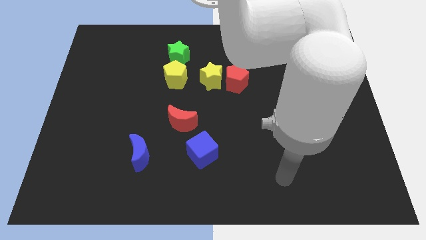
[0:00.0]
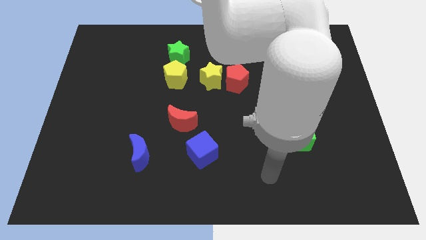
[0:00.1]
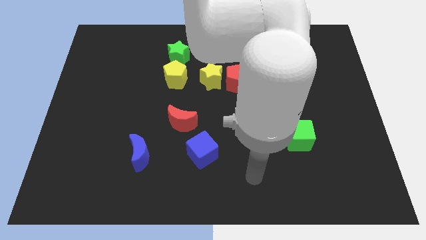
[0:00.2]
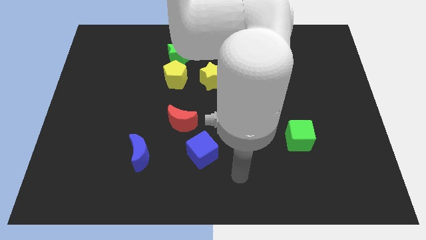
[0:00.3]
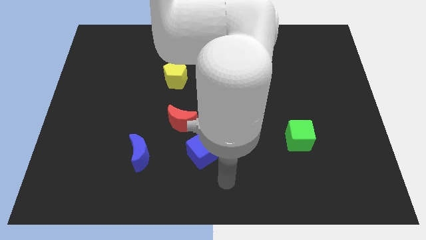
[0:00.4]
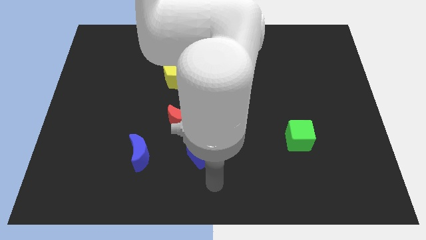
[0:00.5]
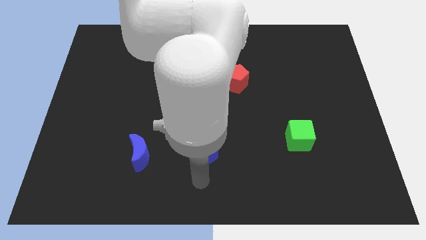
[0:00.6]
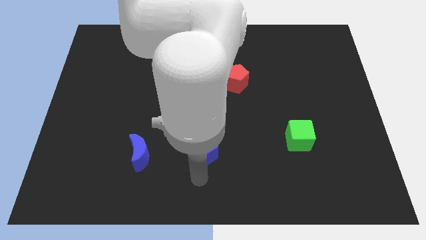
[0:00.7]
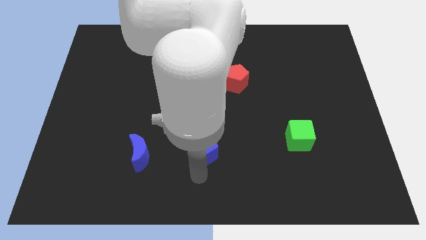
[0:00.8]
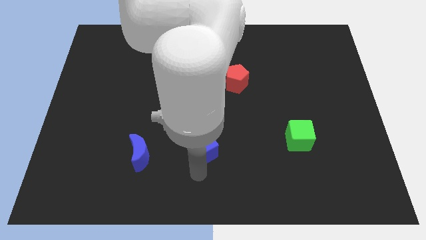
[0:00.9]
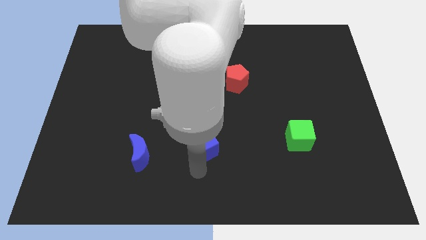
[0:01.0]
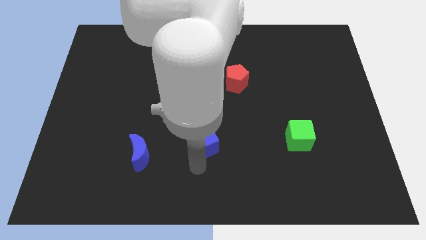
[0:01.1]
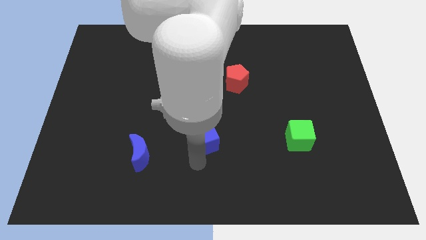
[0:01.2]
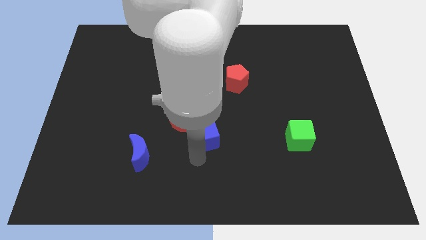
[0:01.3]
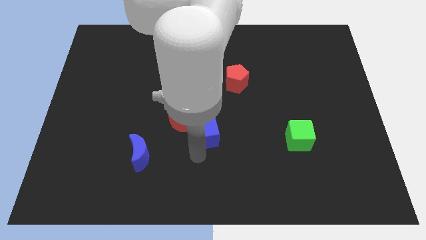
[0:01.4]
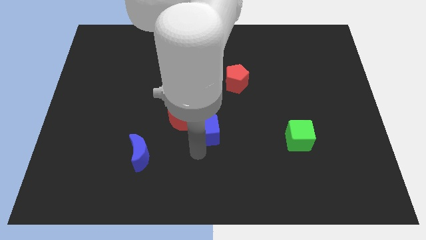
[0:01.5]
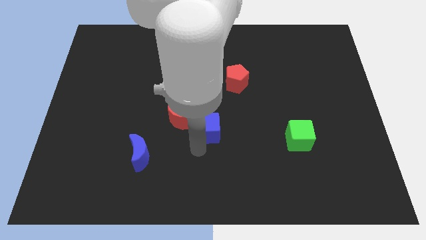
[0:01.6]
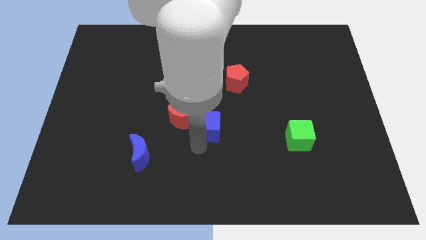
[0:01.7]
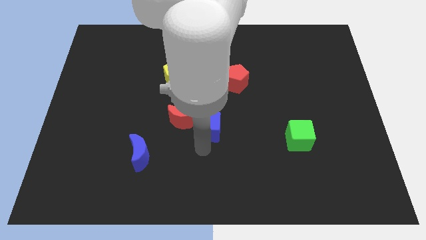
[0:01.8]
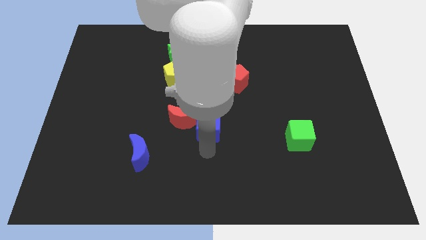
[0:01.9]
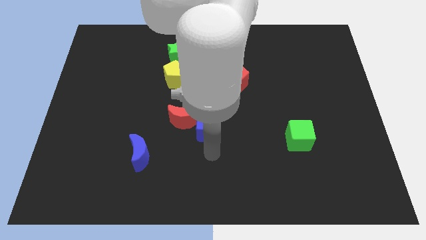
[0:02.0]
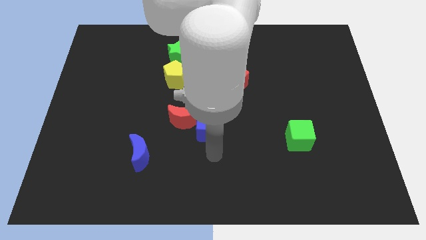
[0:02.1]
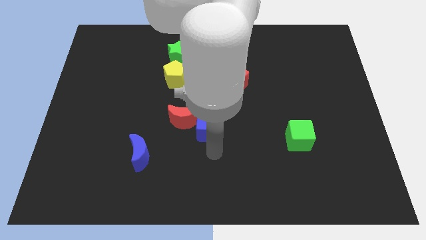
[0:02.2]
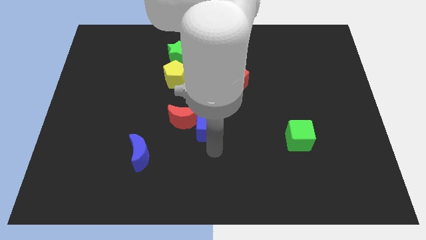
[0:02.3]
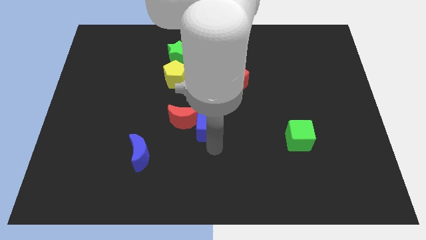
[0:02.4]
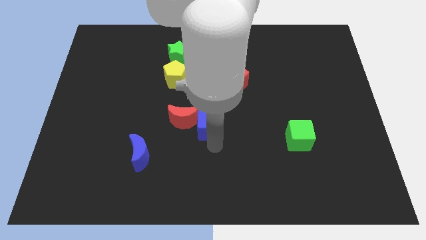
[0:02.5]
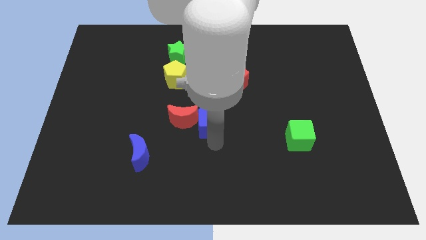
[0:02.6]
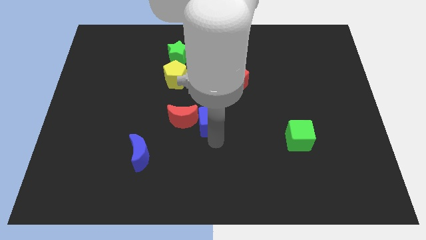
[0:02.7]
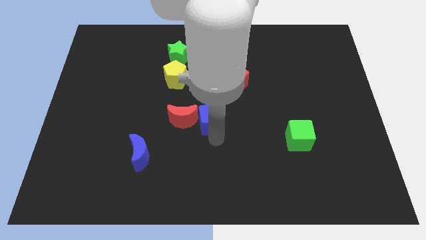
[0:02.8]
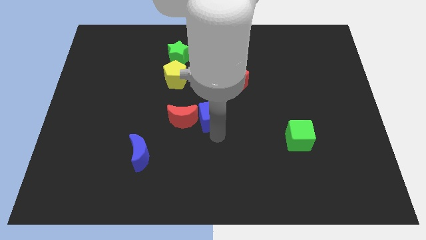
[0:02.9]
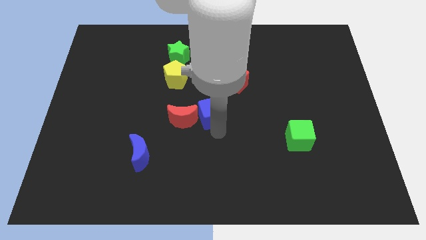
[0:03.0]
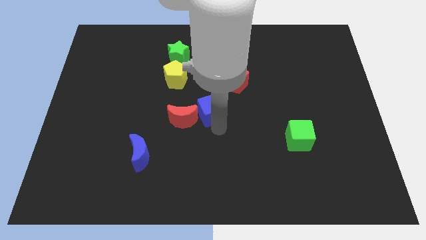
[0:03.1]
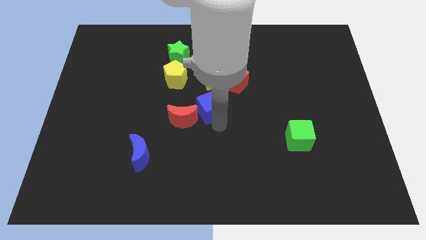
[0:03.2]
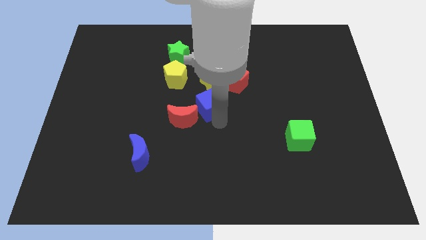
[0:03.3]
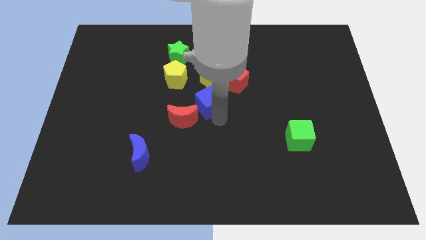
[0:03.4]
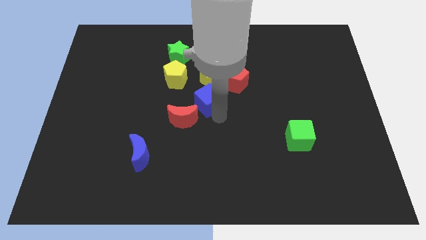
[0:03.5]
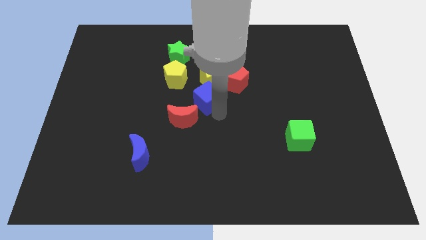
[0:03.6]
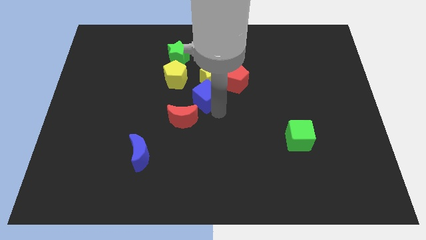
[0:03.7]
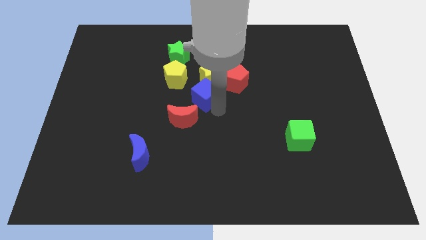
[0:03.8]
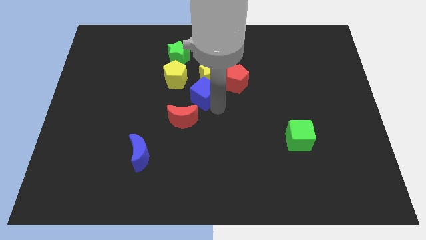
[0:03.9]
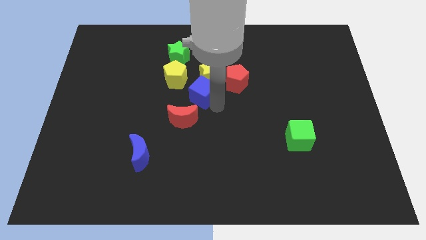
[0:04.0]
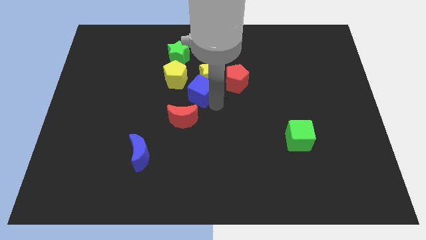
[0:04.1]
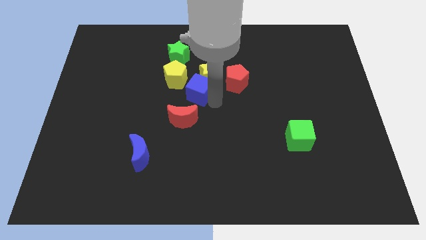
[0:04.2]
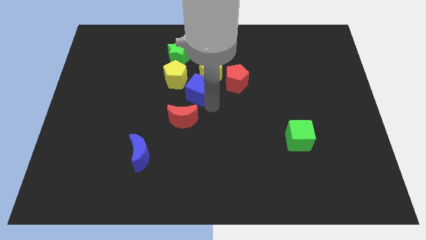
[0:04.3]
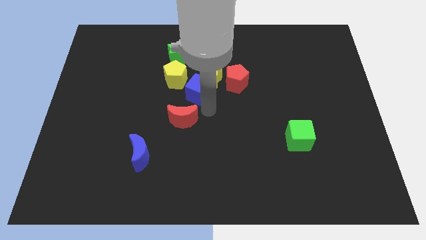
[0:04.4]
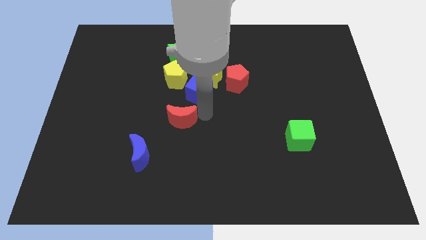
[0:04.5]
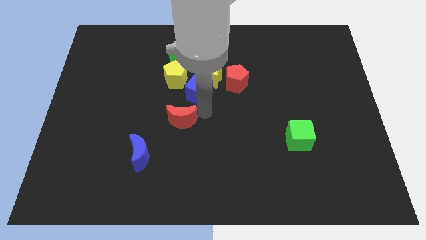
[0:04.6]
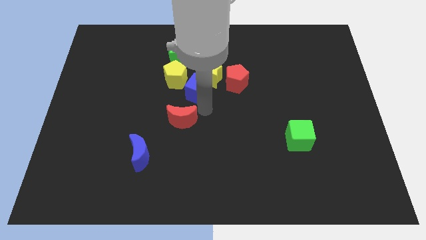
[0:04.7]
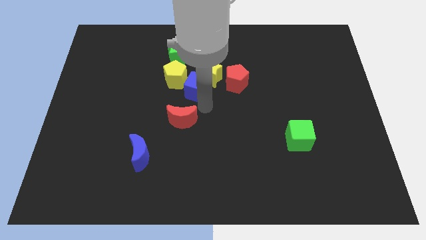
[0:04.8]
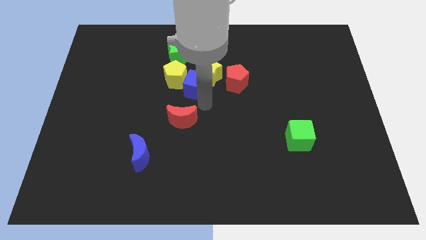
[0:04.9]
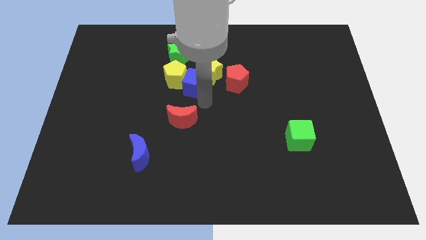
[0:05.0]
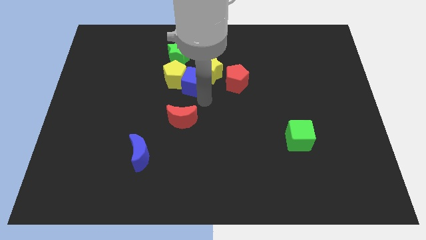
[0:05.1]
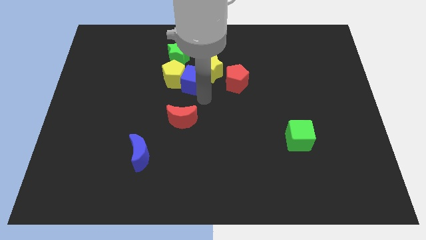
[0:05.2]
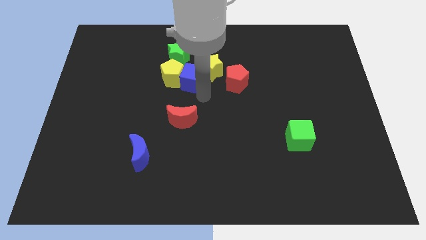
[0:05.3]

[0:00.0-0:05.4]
move the blue cube diagonally up and to the right of the yellow pentagon

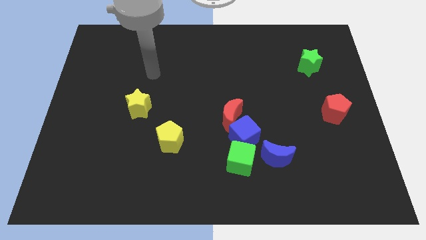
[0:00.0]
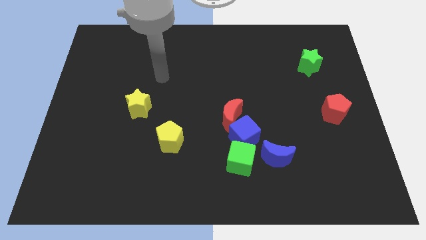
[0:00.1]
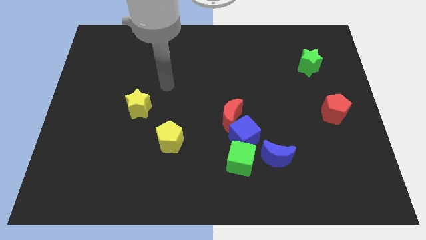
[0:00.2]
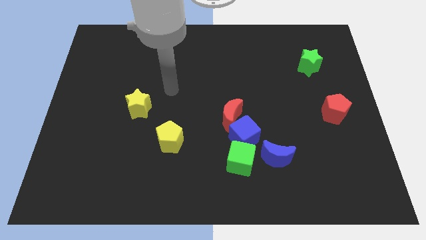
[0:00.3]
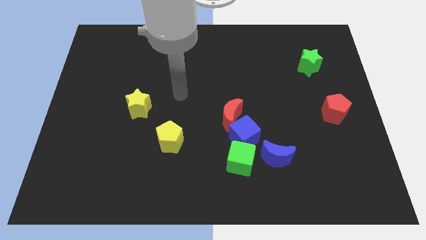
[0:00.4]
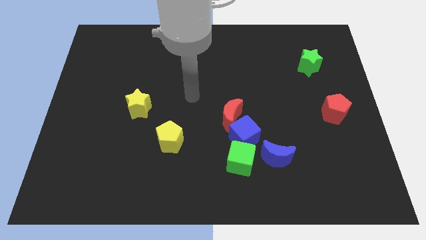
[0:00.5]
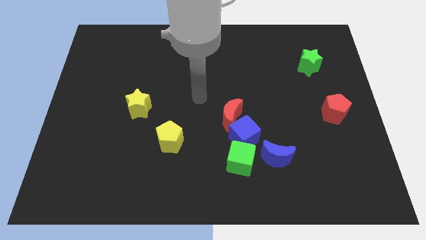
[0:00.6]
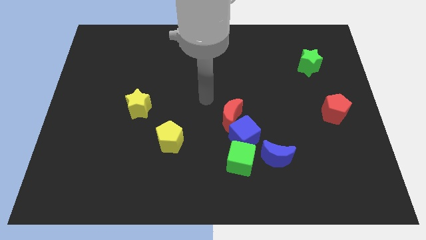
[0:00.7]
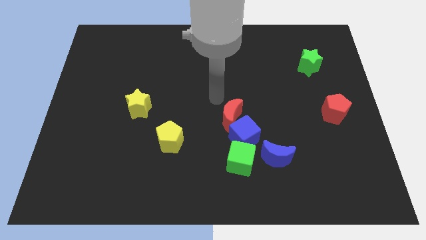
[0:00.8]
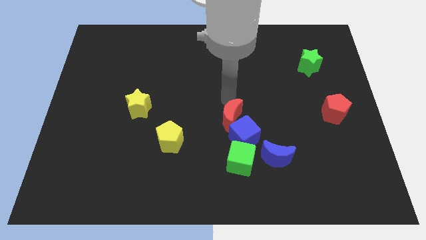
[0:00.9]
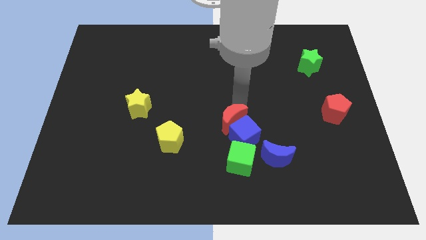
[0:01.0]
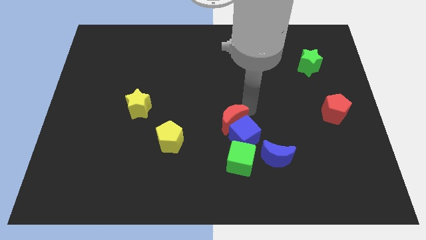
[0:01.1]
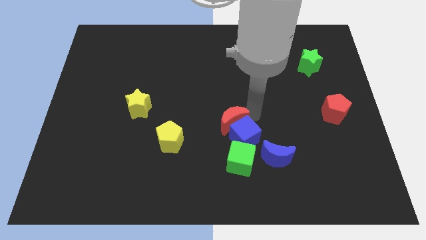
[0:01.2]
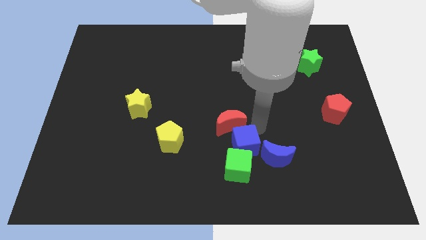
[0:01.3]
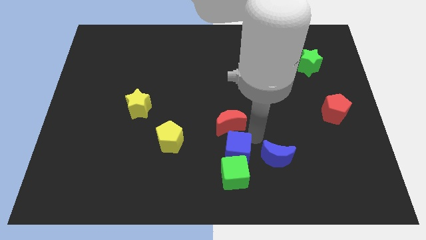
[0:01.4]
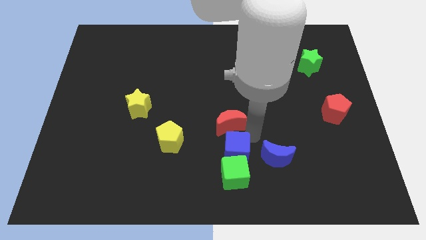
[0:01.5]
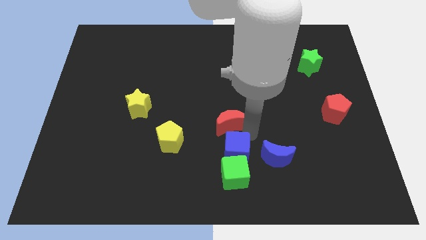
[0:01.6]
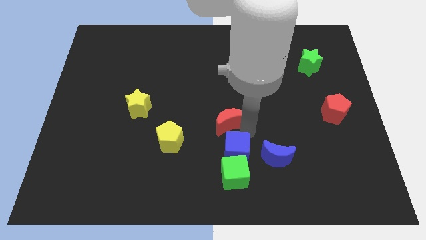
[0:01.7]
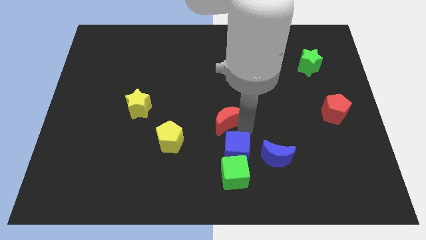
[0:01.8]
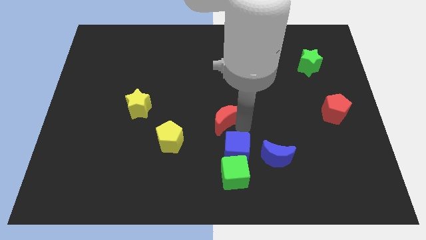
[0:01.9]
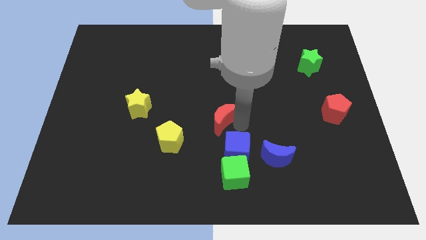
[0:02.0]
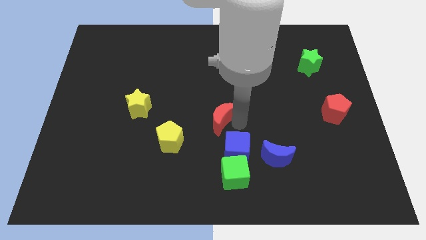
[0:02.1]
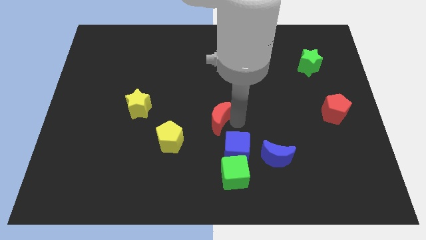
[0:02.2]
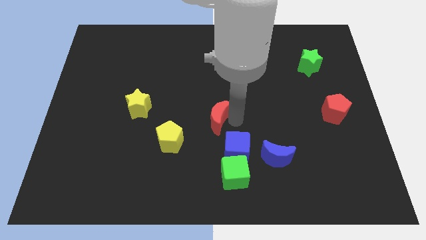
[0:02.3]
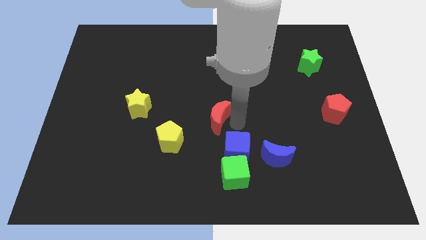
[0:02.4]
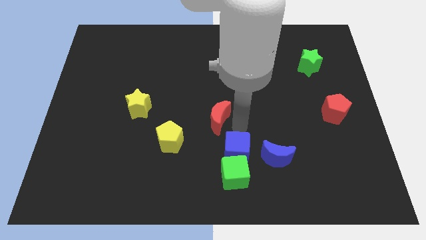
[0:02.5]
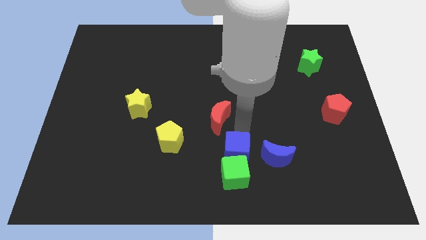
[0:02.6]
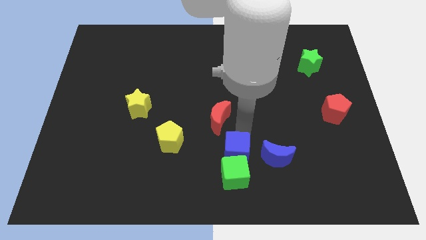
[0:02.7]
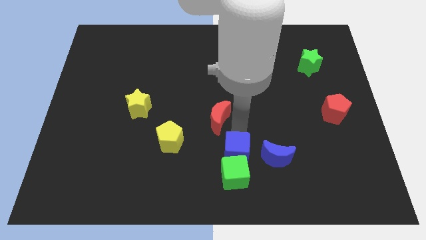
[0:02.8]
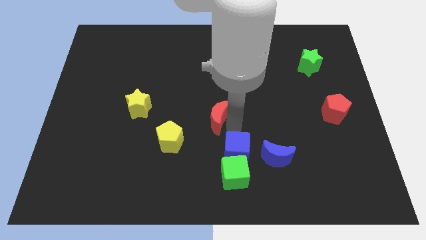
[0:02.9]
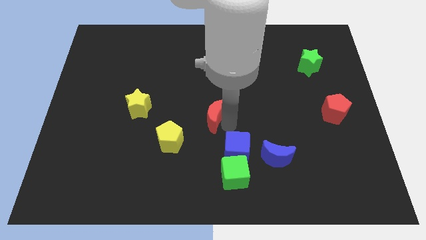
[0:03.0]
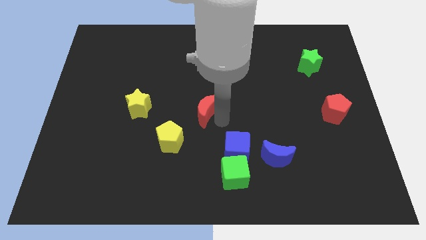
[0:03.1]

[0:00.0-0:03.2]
slide the red moon to the right side of the yellow star
